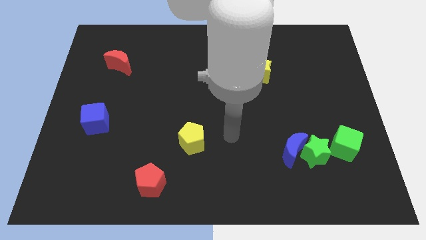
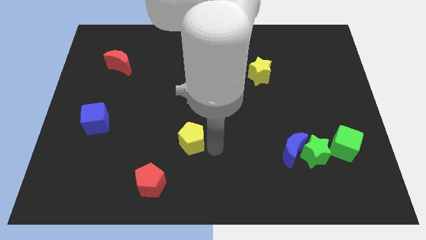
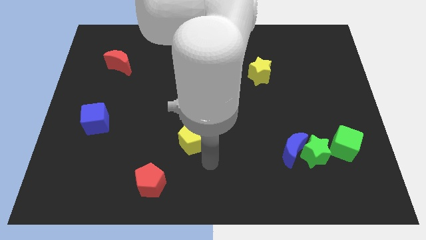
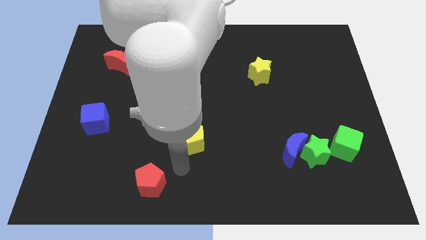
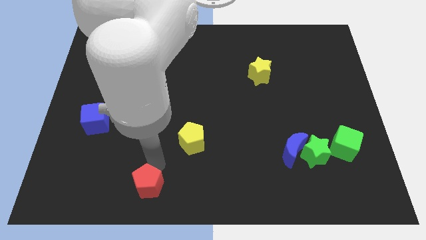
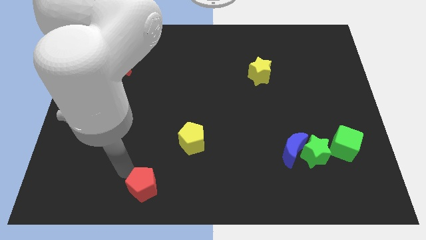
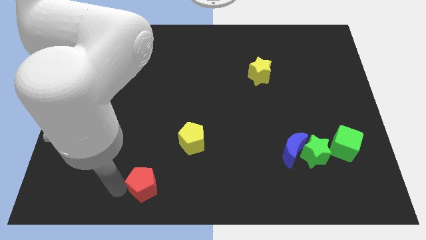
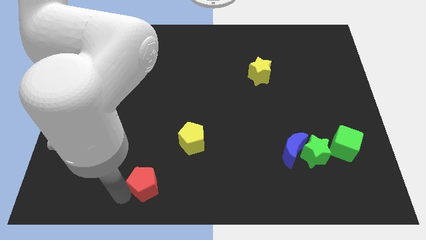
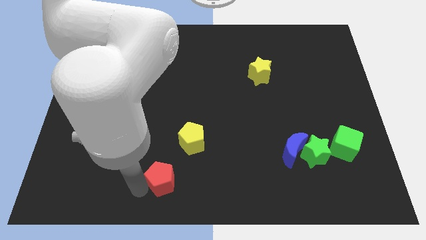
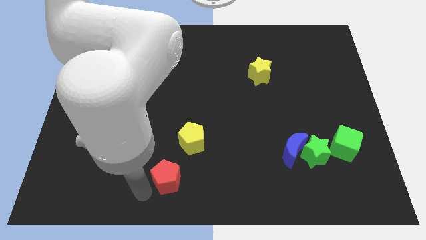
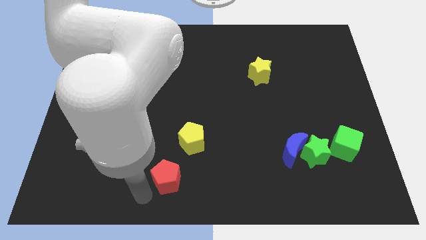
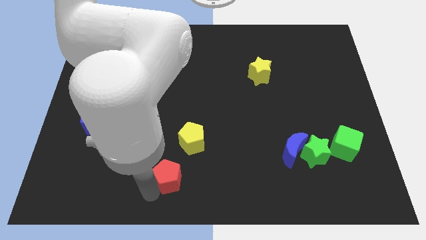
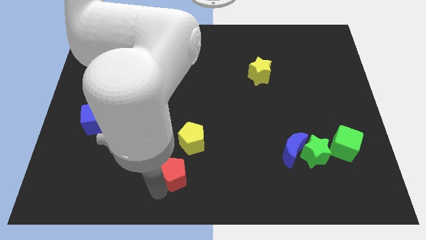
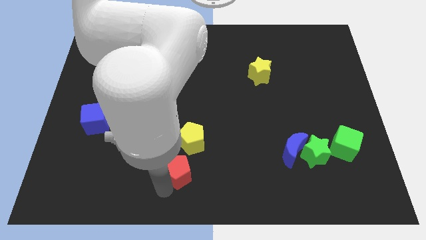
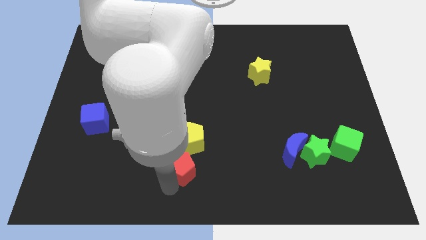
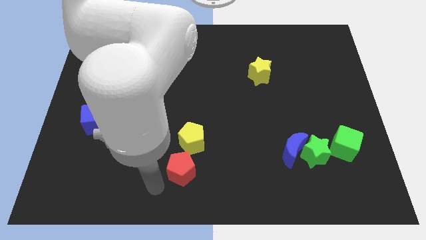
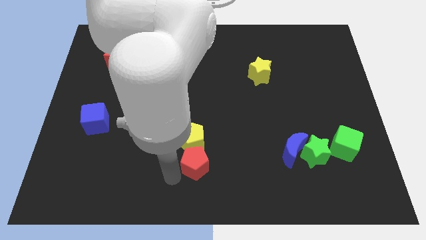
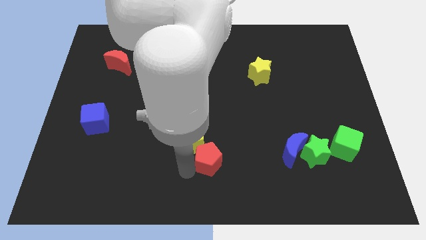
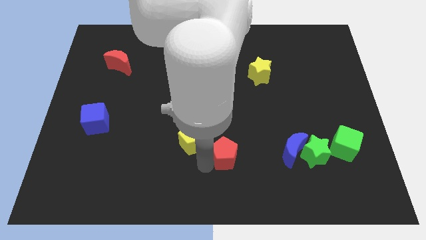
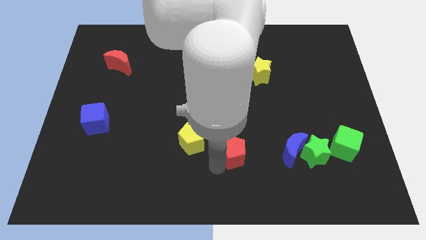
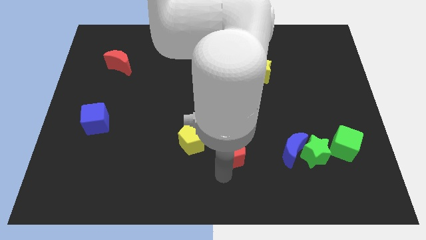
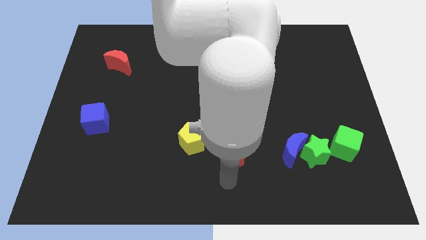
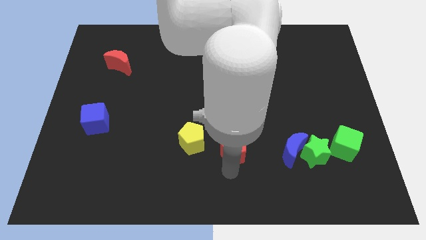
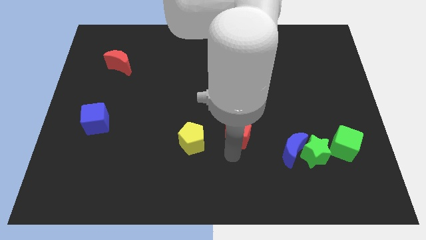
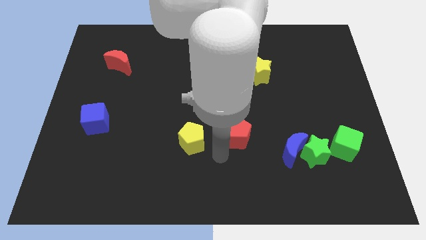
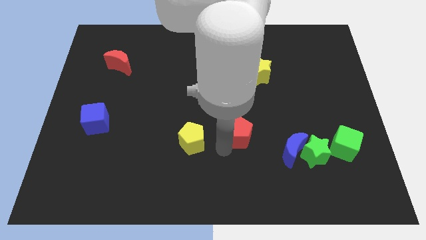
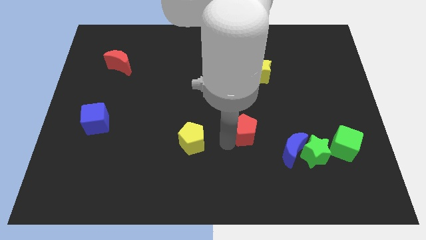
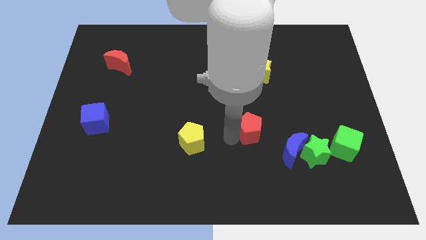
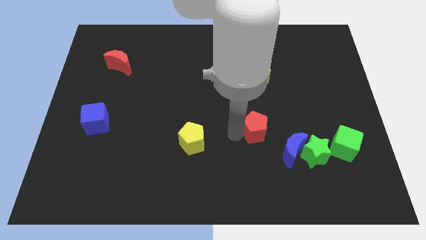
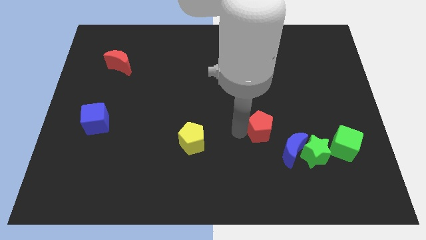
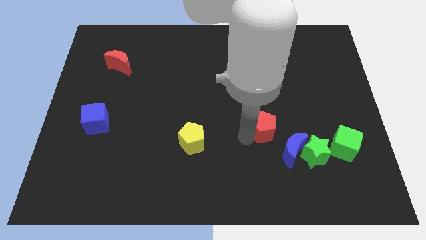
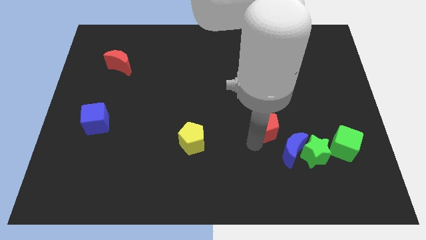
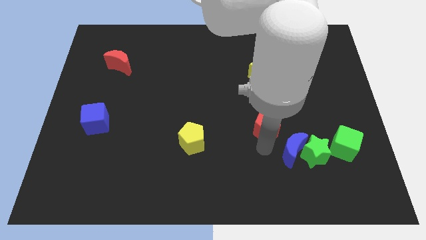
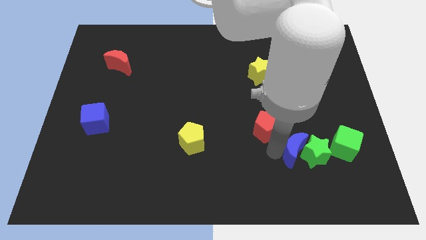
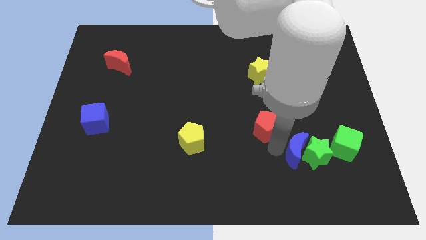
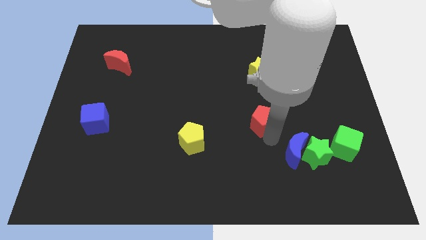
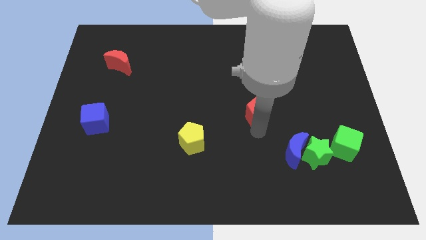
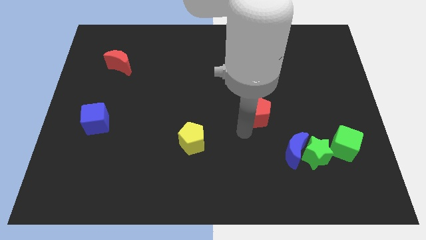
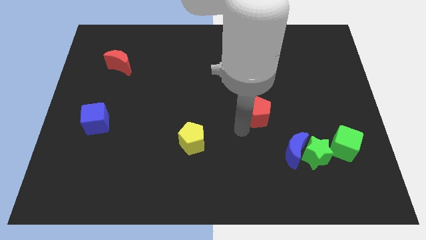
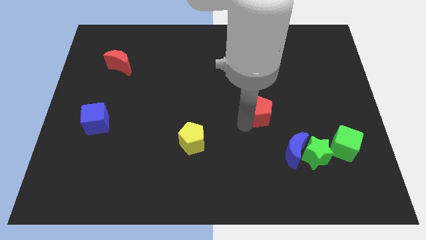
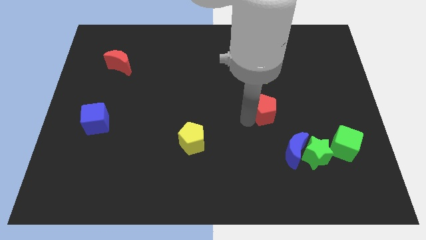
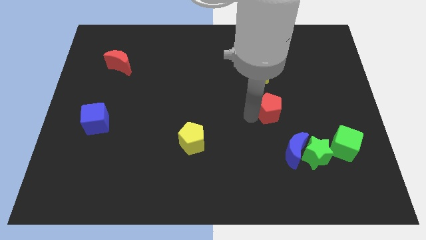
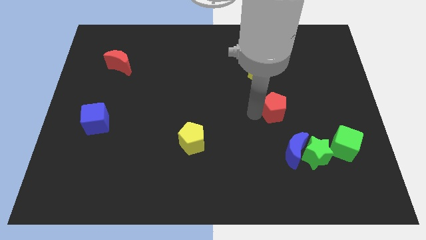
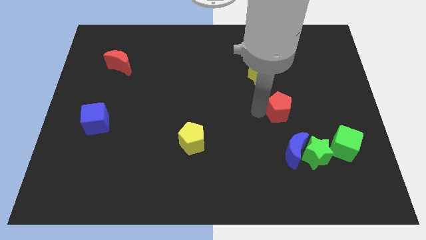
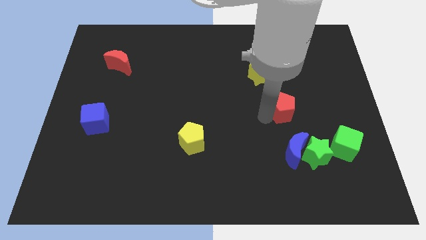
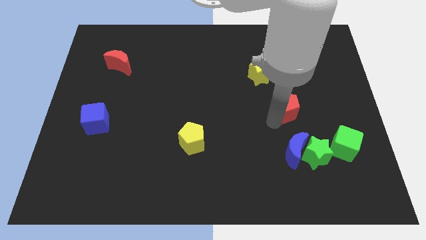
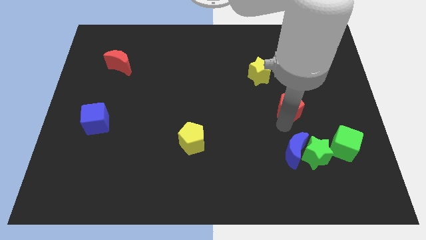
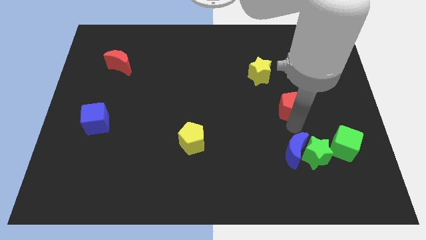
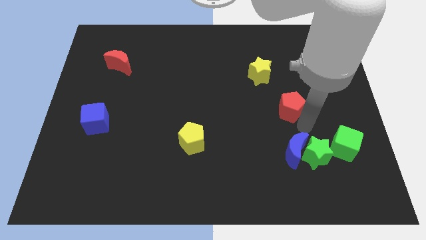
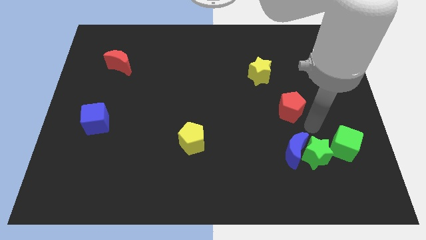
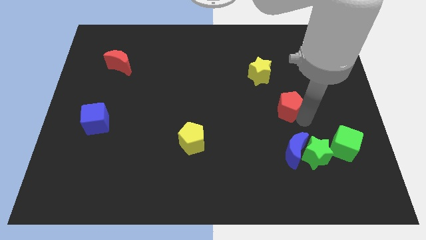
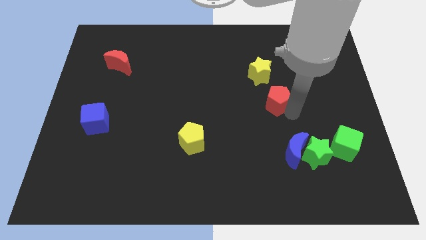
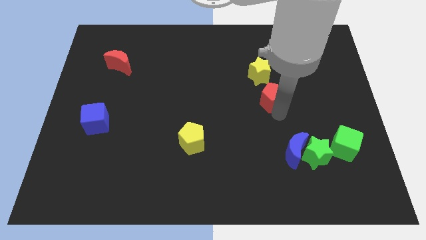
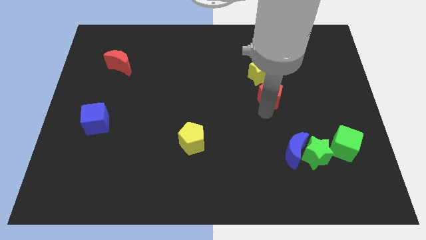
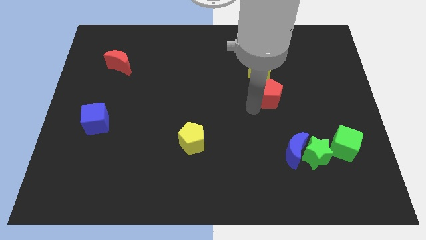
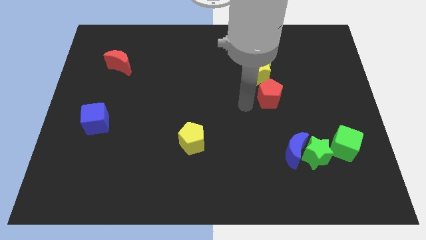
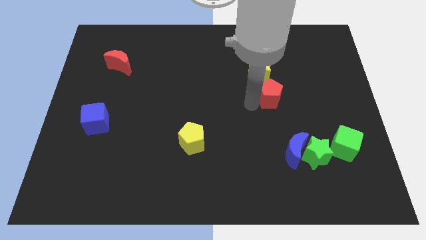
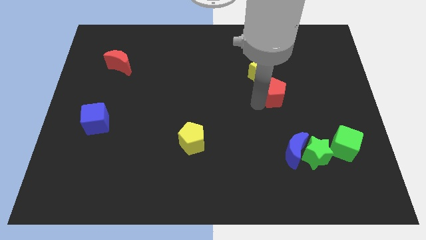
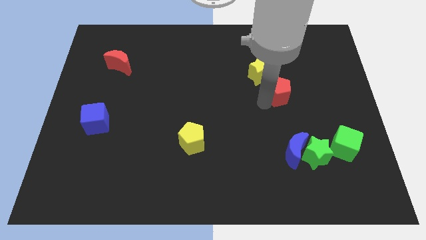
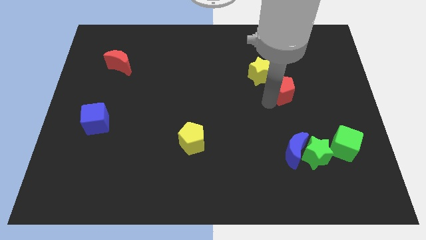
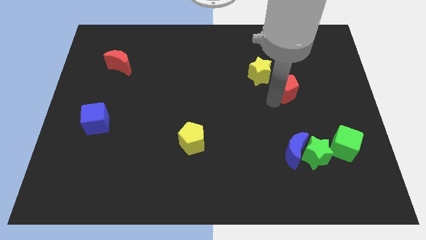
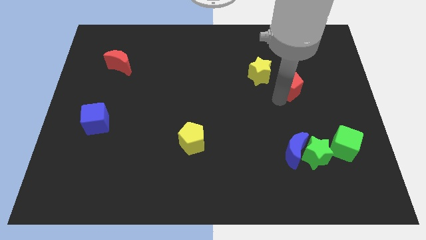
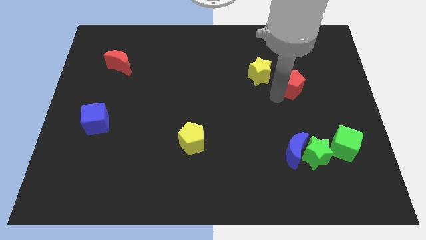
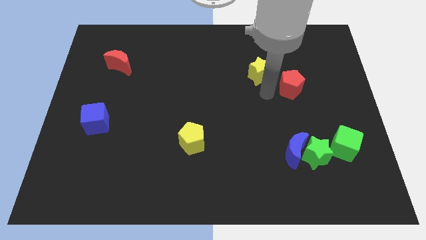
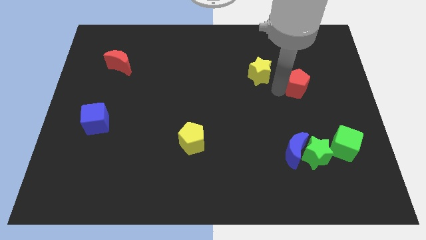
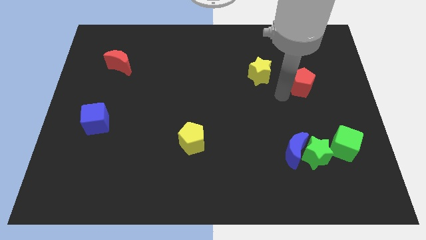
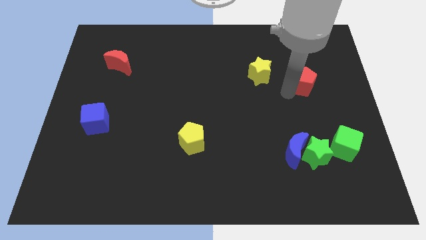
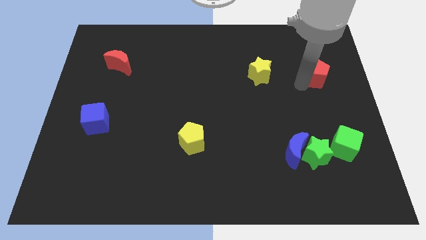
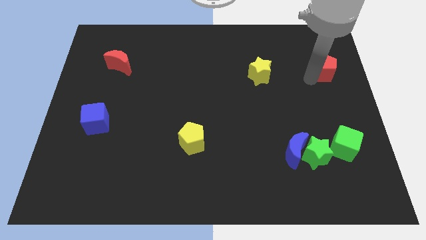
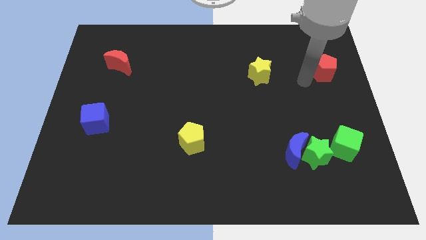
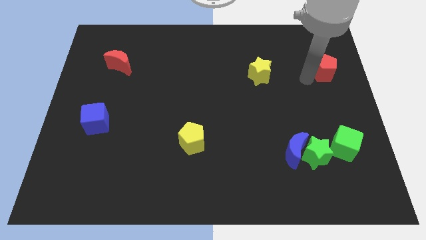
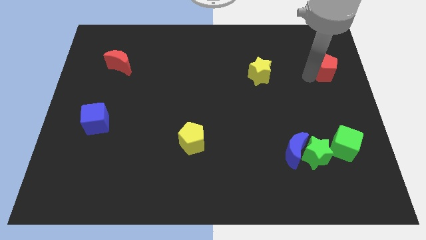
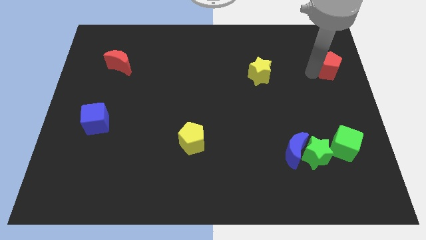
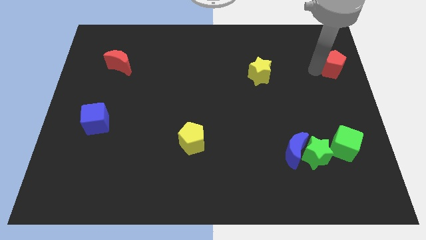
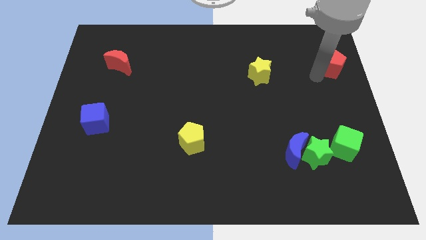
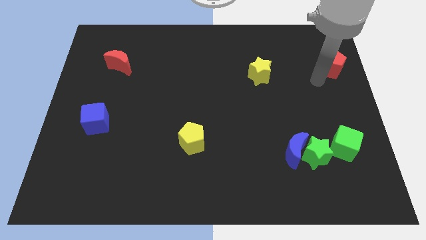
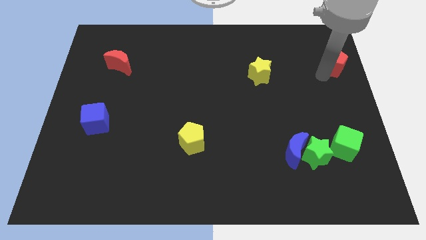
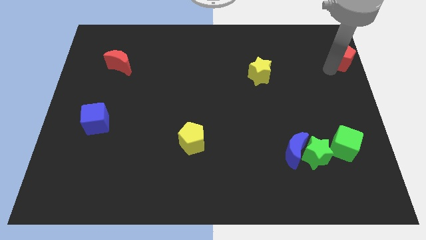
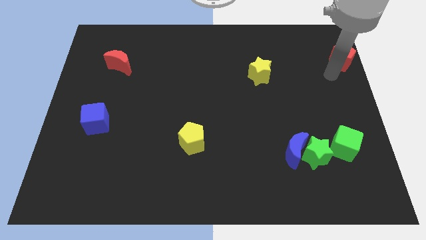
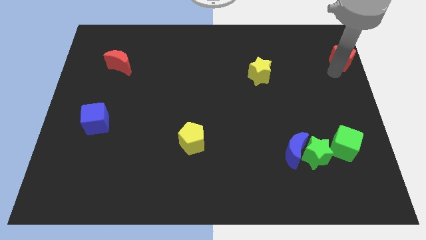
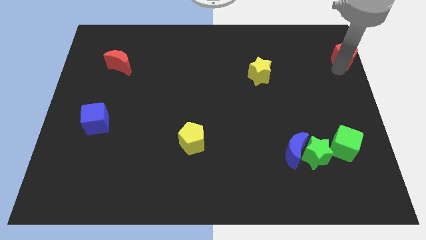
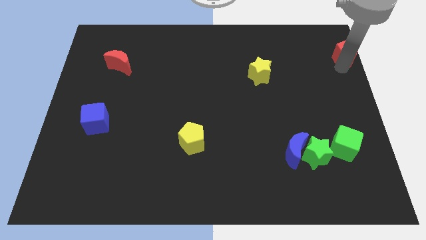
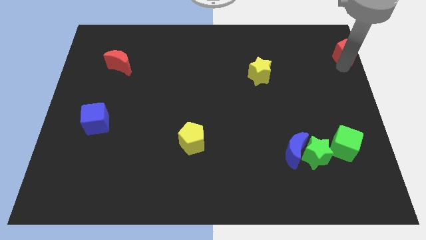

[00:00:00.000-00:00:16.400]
move the red pentagon to the top right corner
